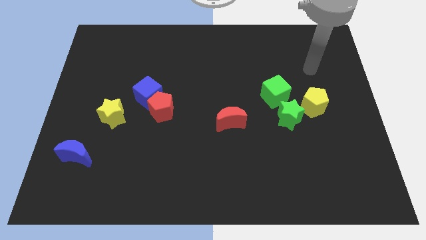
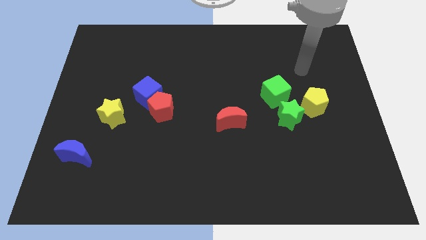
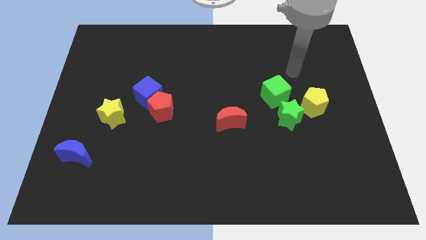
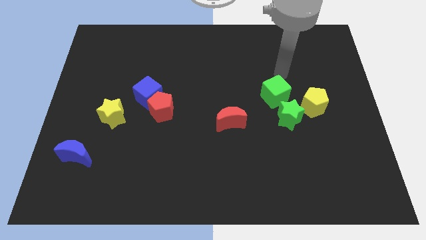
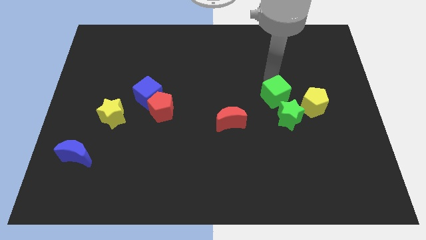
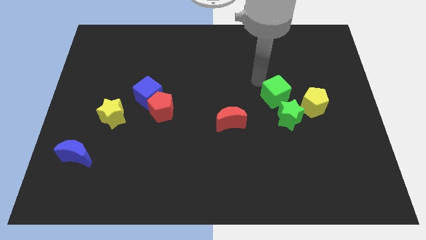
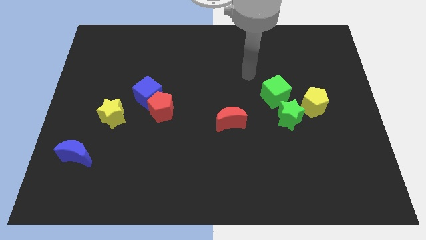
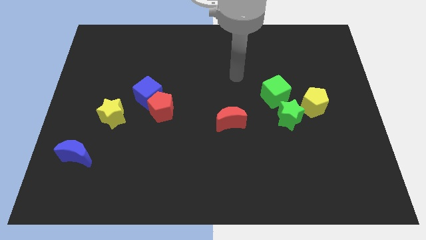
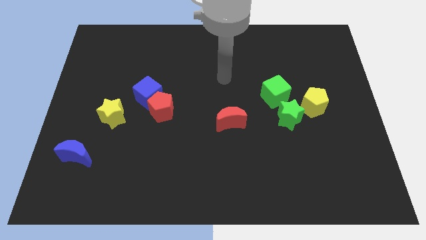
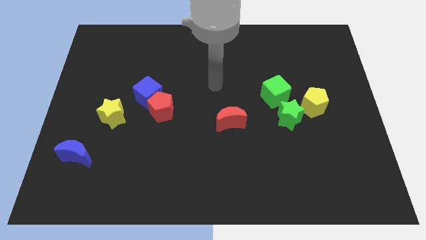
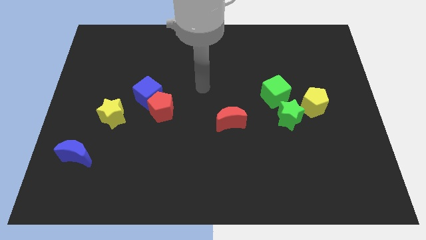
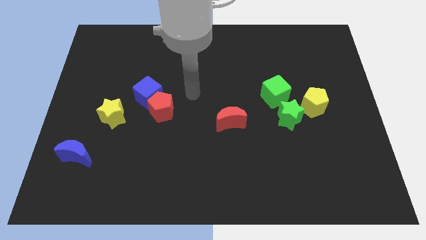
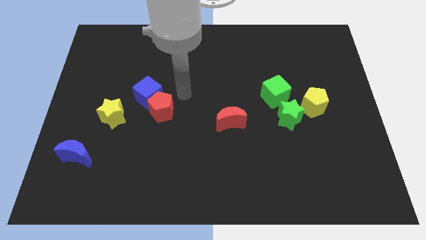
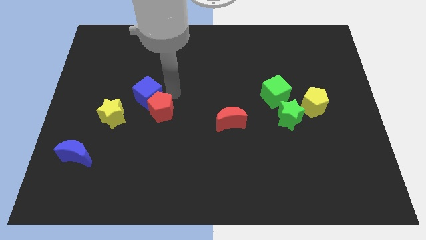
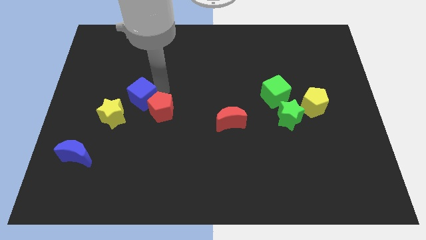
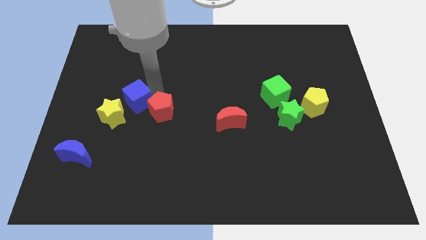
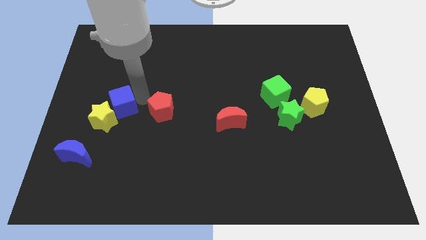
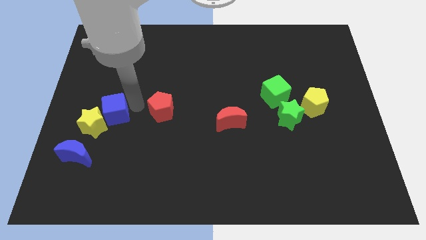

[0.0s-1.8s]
move the red pentagon away from the blue cube

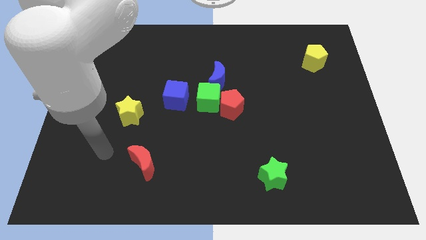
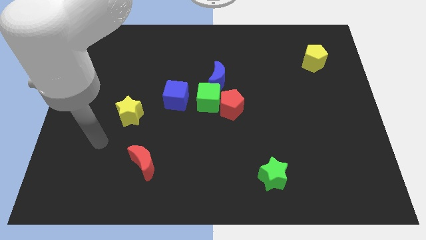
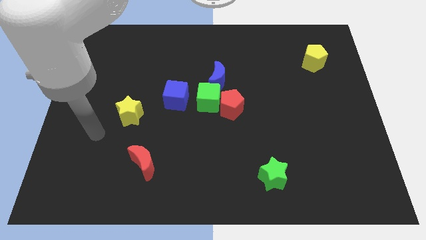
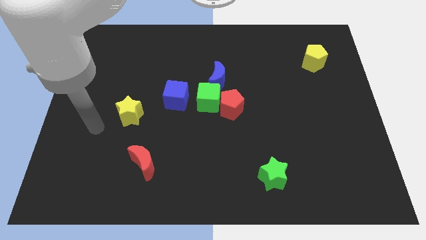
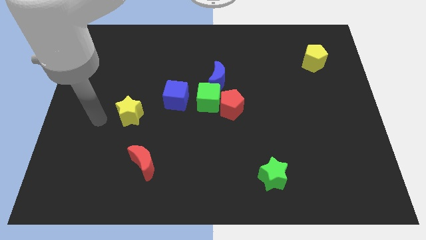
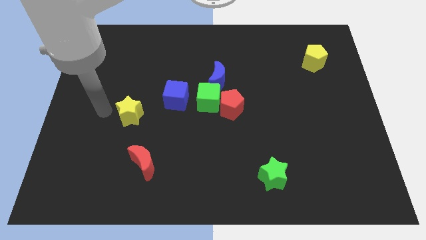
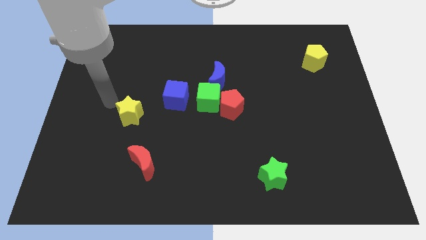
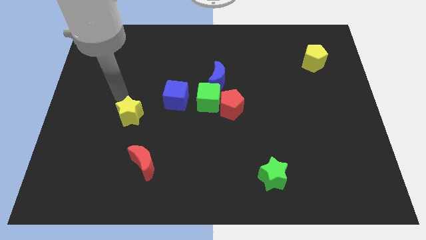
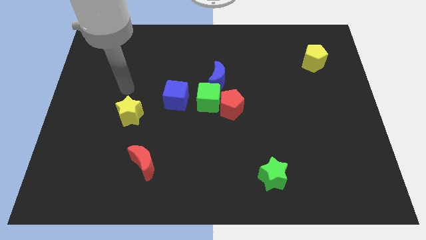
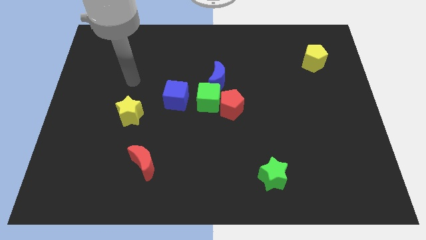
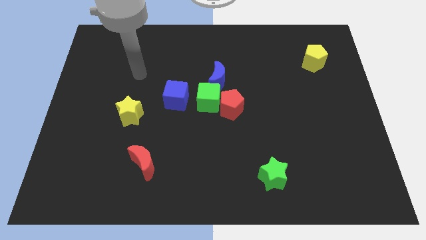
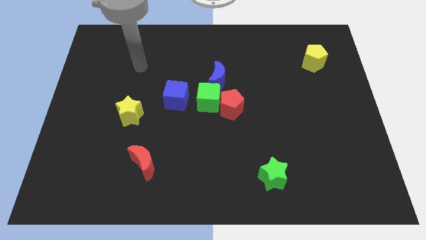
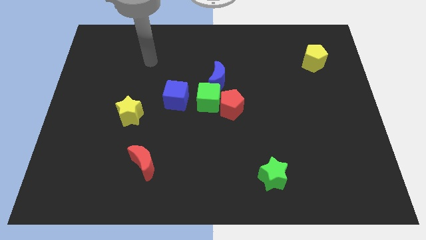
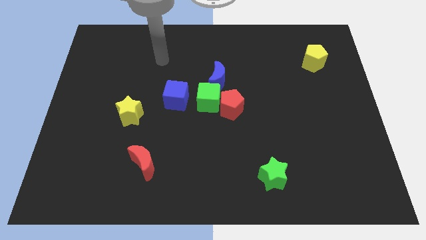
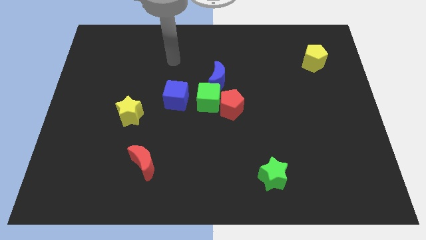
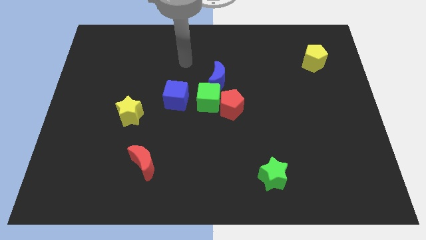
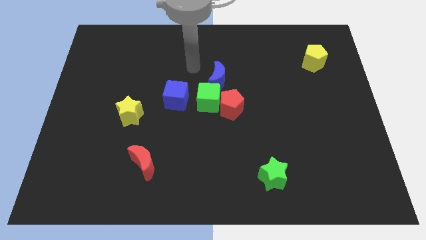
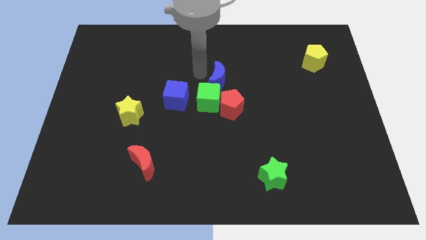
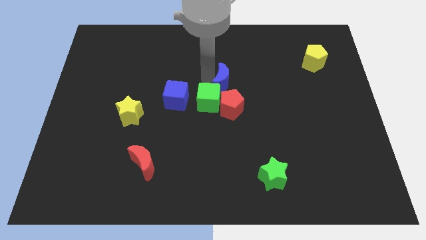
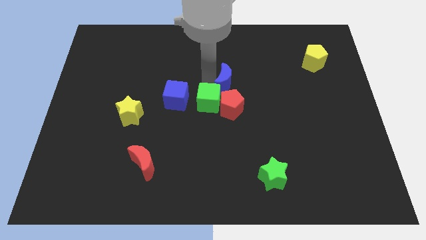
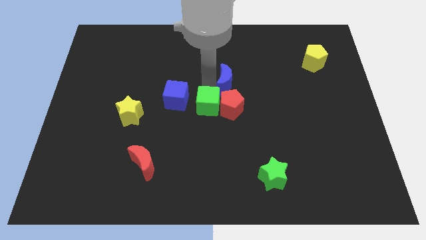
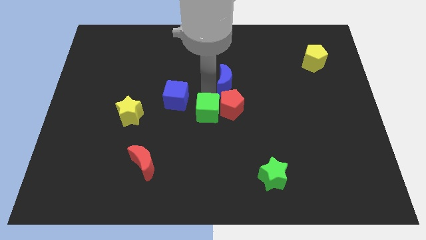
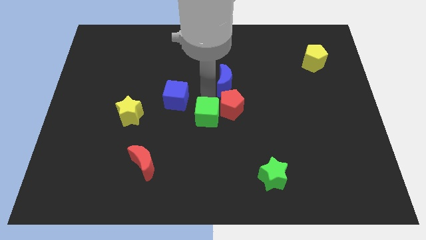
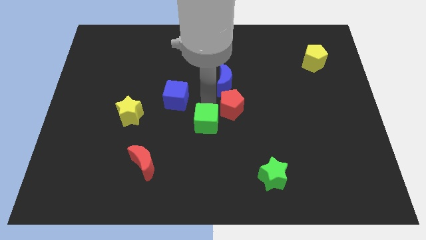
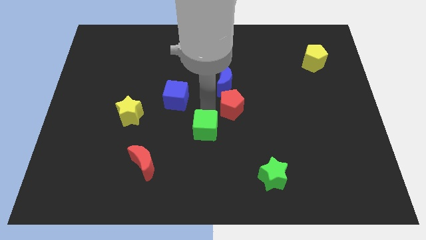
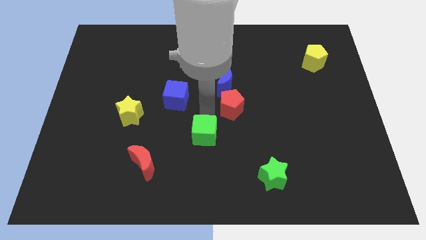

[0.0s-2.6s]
move the green cube away from the clump

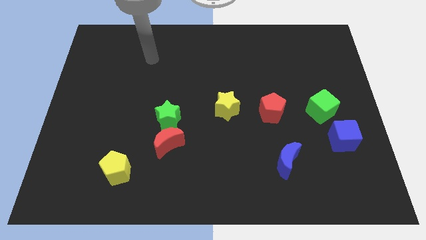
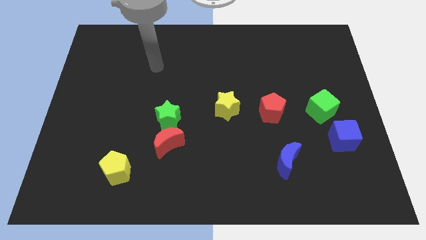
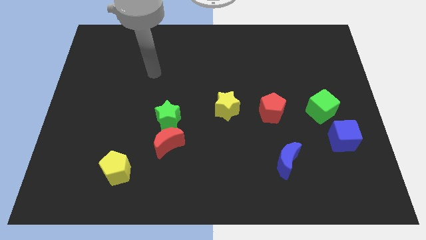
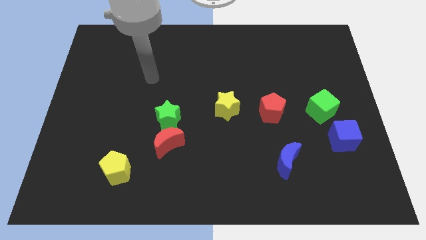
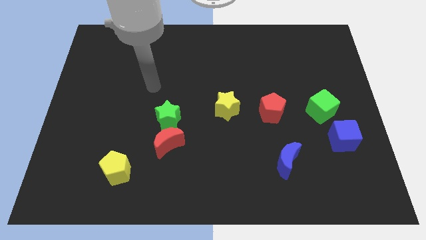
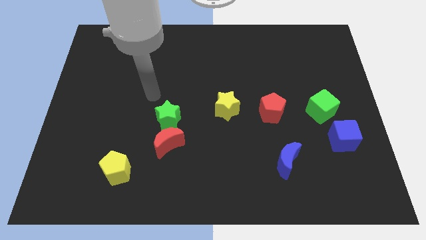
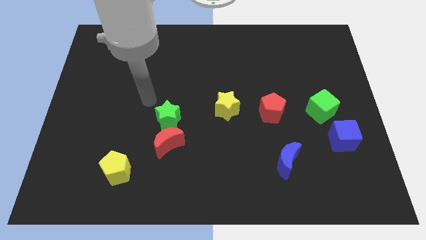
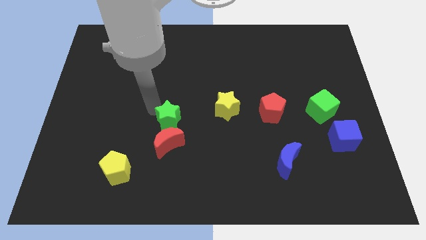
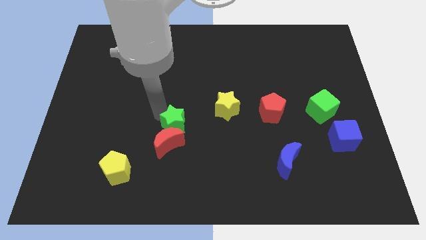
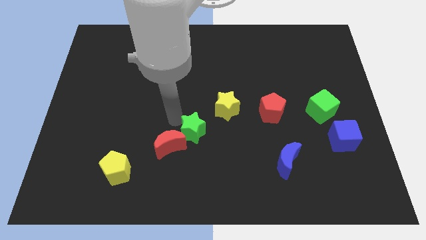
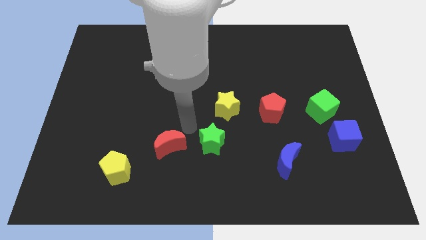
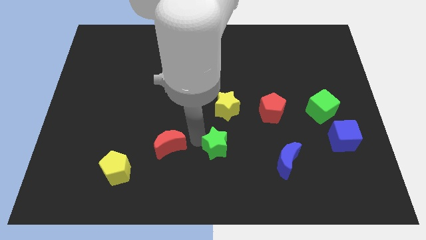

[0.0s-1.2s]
pull the red moon apart from the green star

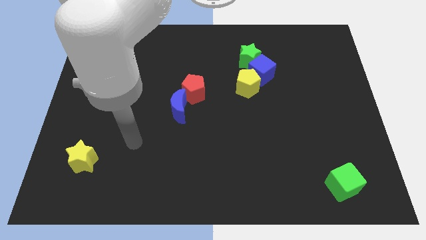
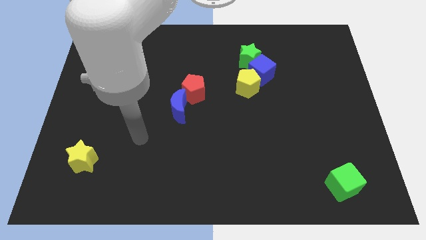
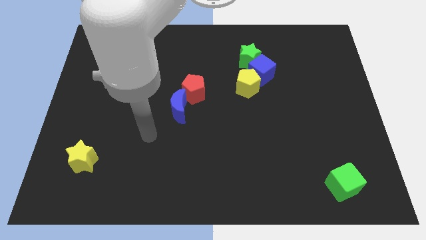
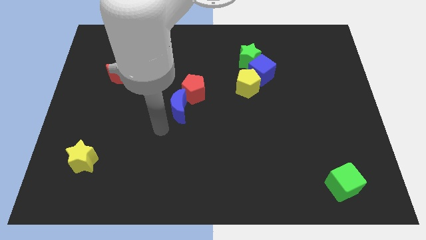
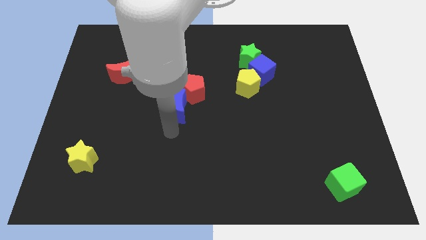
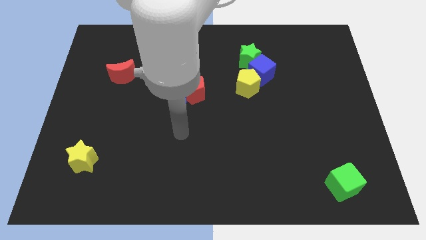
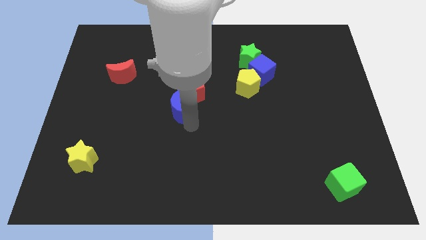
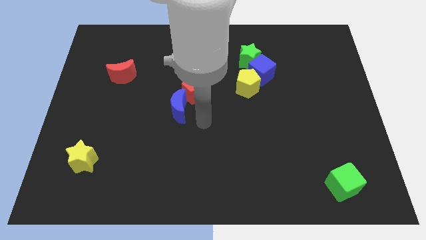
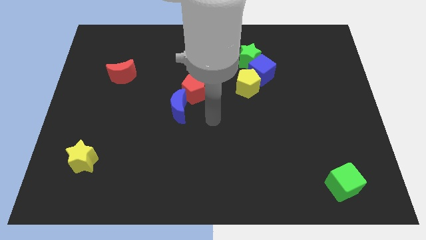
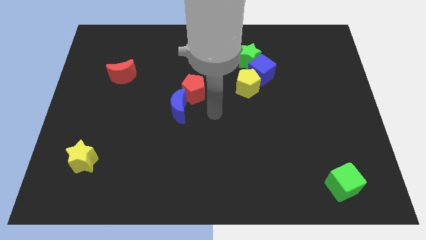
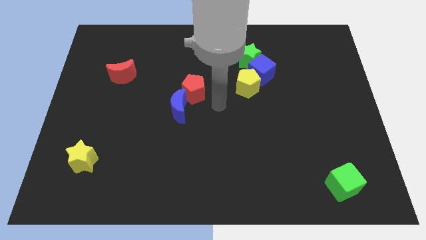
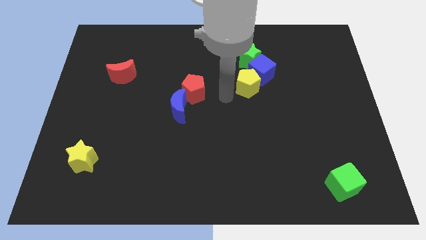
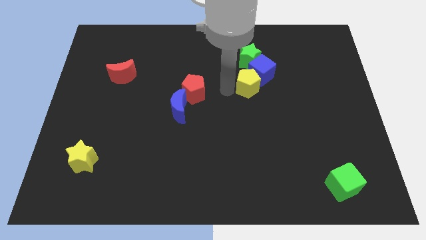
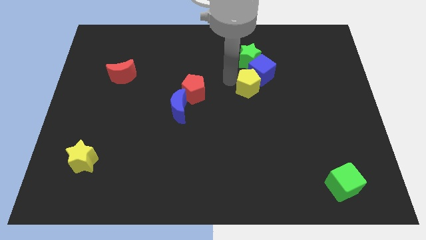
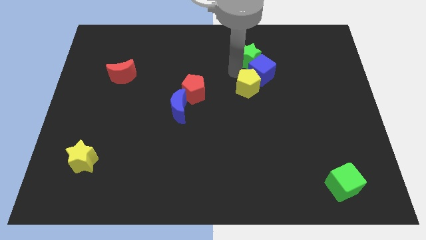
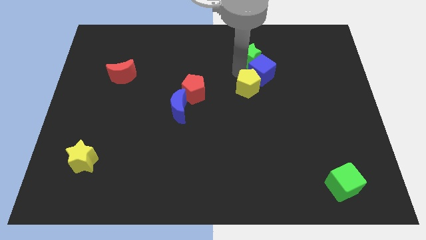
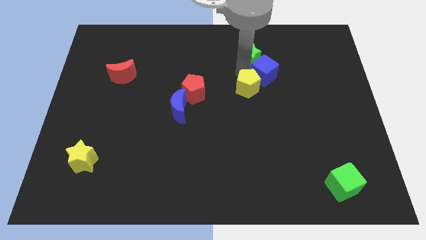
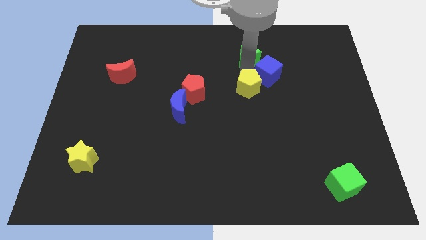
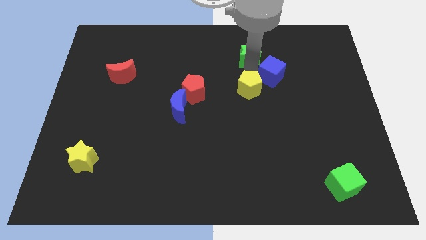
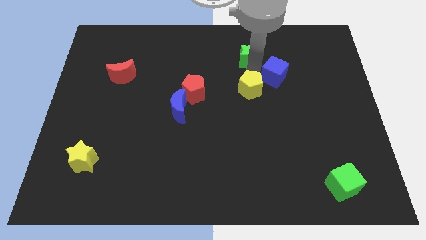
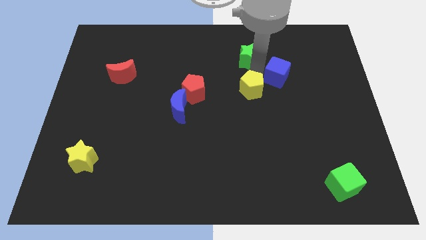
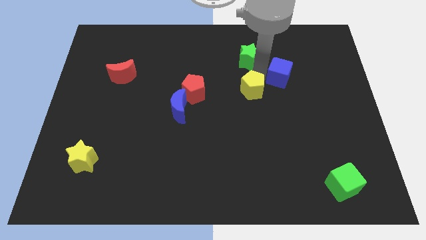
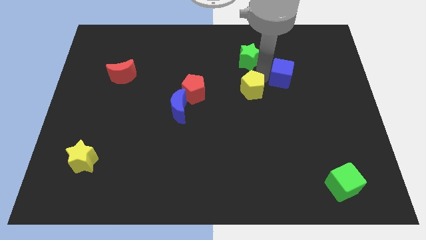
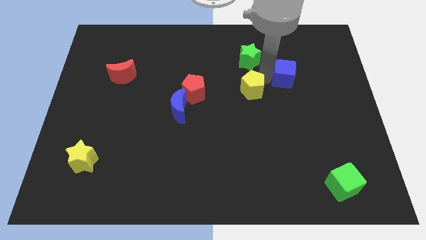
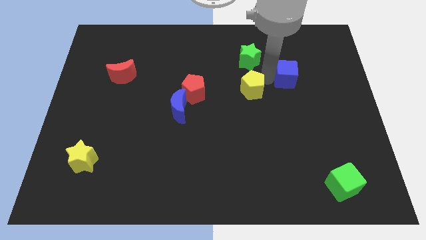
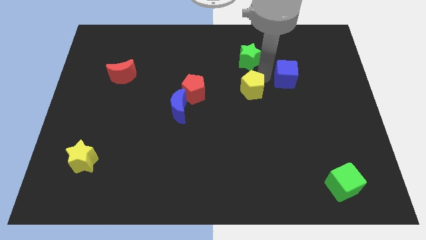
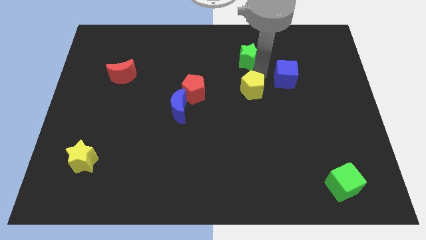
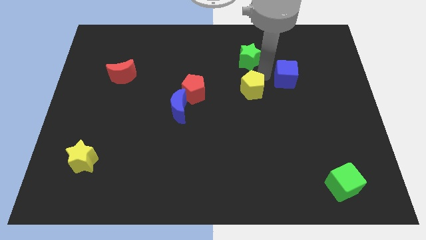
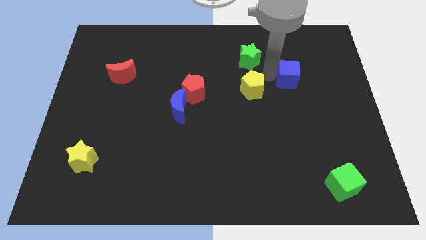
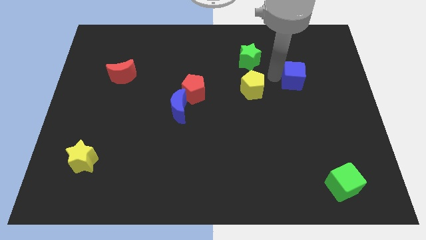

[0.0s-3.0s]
pull the blue cube apart from the yellow pentagon and green star

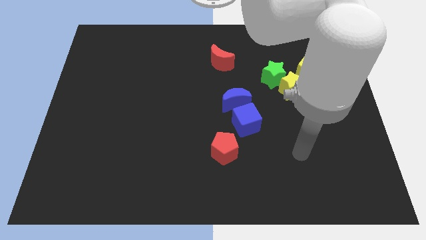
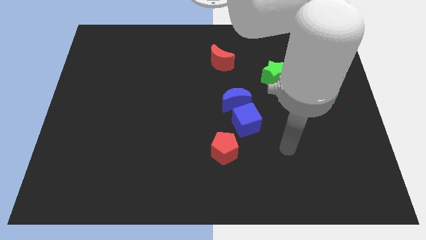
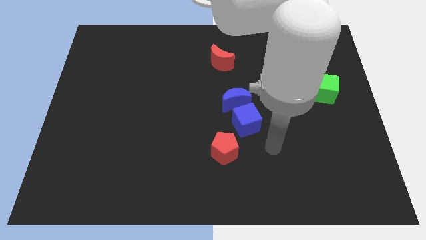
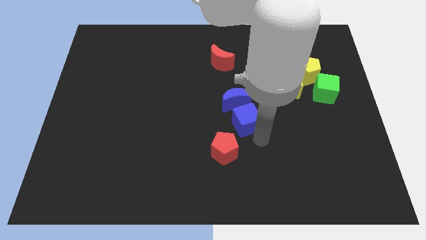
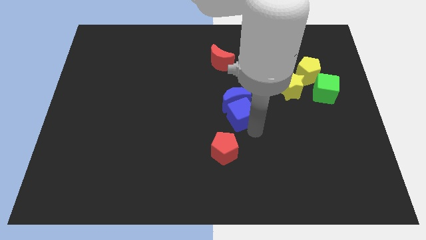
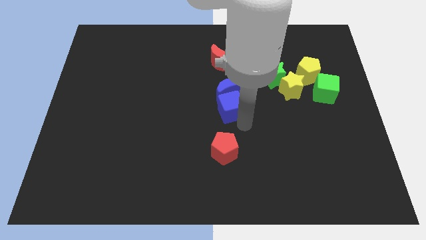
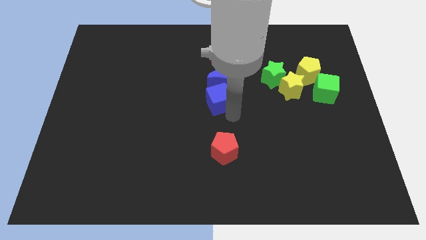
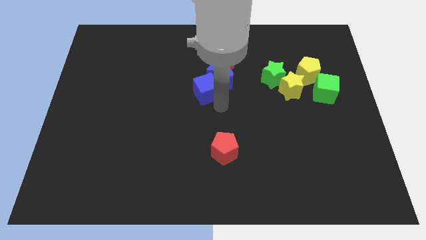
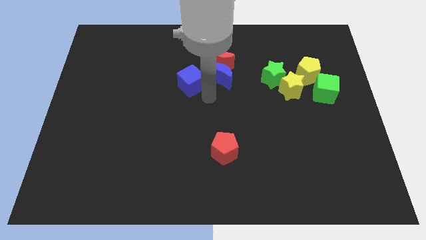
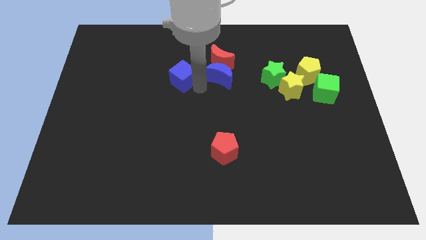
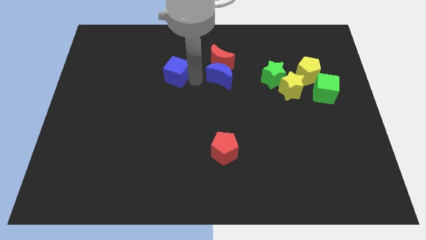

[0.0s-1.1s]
move the blue moon away from the blue cube
